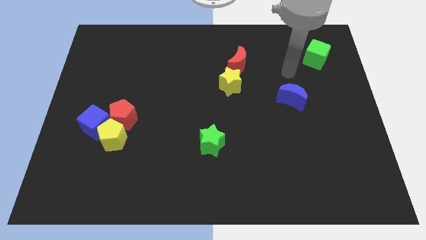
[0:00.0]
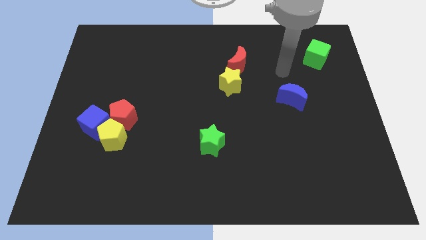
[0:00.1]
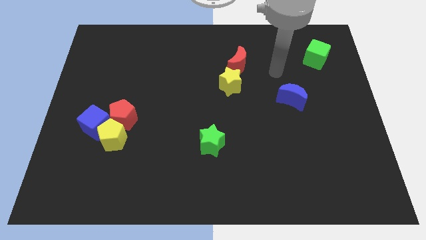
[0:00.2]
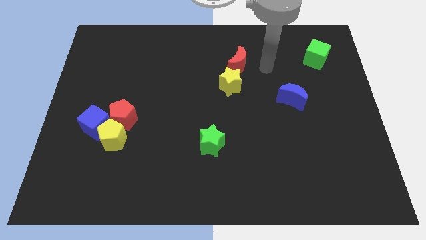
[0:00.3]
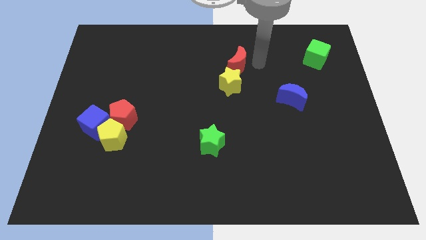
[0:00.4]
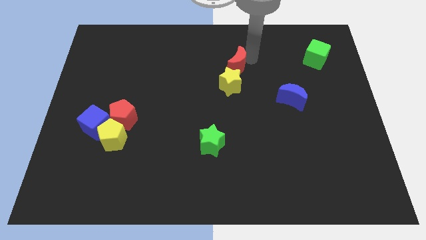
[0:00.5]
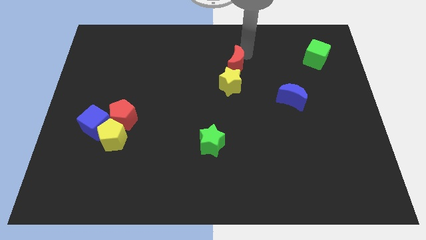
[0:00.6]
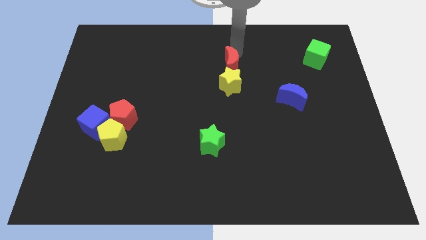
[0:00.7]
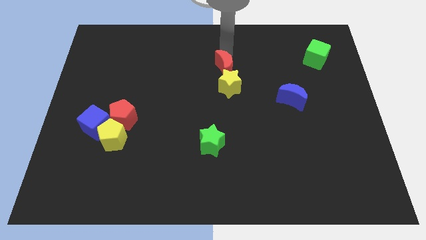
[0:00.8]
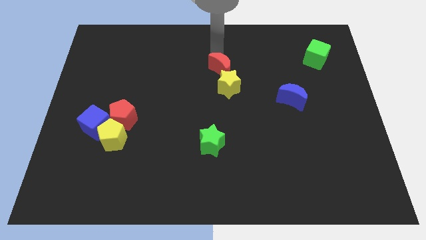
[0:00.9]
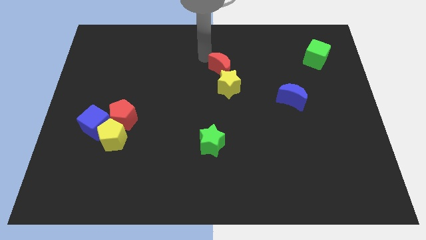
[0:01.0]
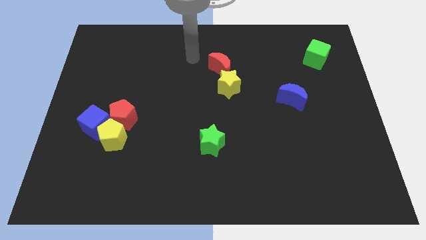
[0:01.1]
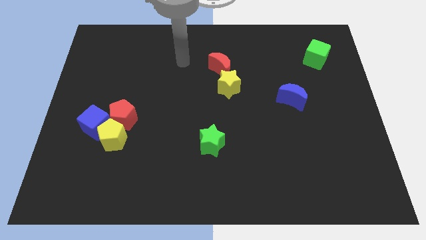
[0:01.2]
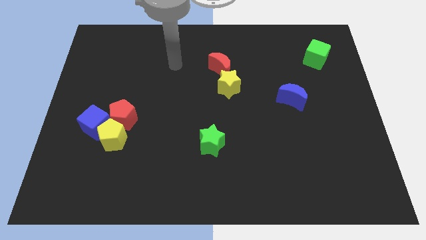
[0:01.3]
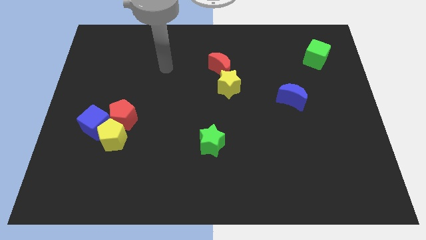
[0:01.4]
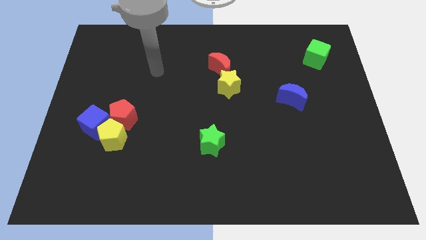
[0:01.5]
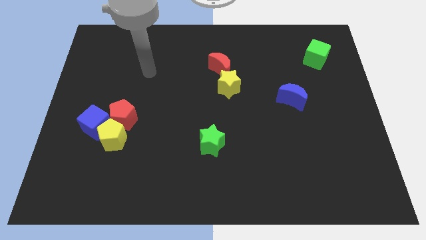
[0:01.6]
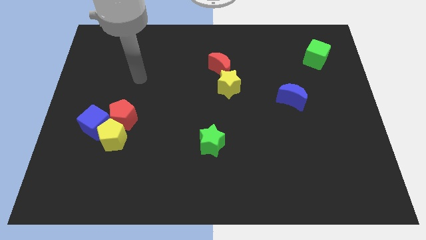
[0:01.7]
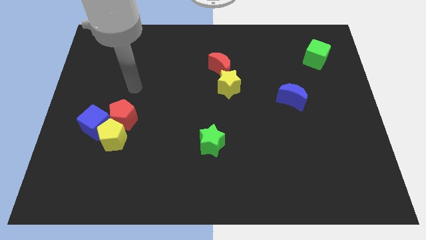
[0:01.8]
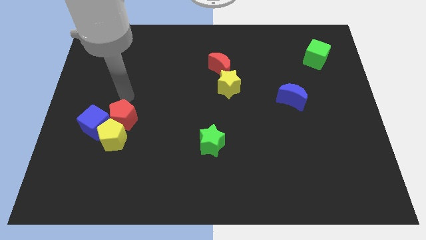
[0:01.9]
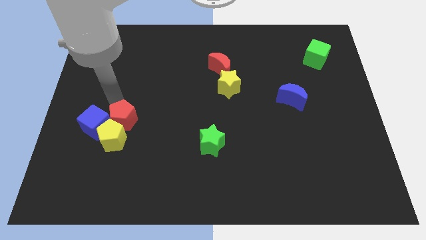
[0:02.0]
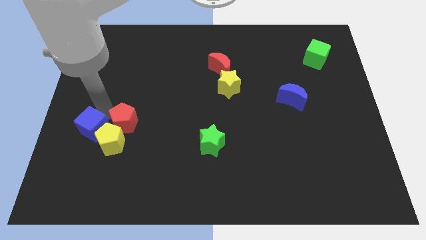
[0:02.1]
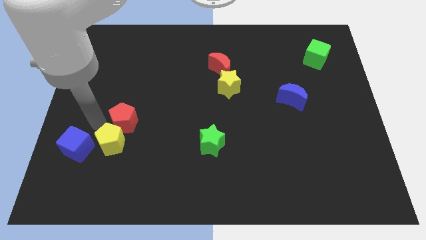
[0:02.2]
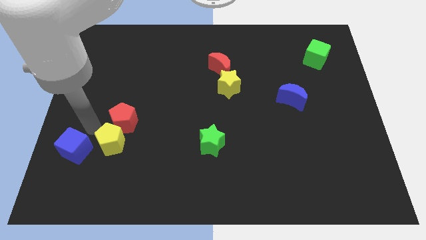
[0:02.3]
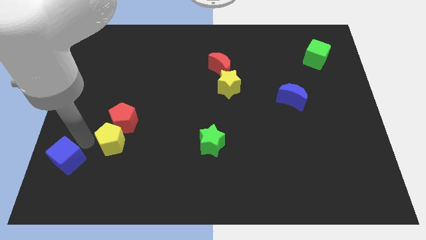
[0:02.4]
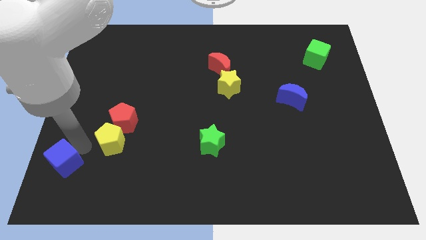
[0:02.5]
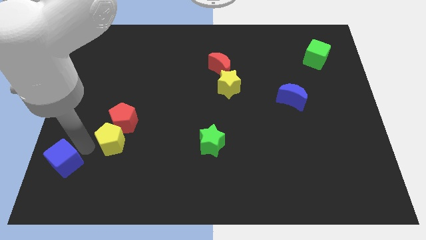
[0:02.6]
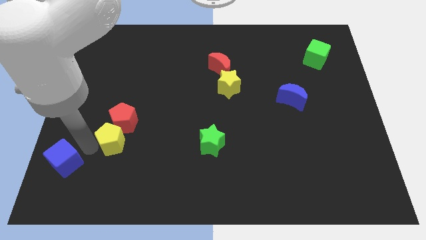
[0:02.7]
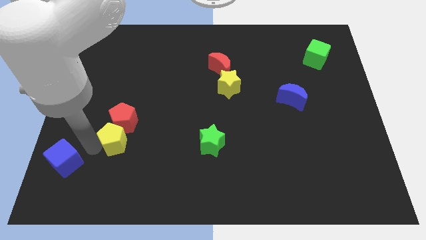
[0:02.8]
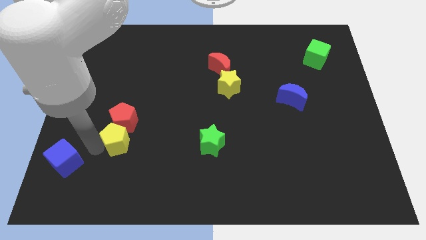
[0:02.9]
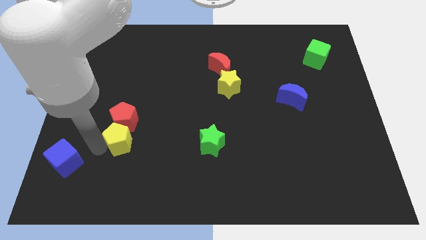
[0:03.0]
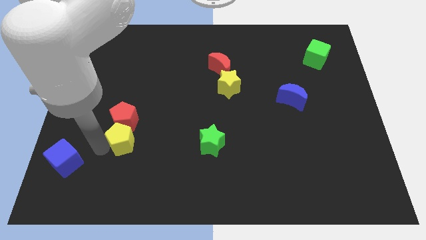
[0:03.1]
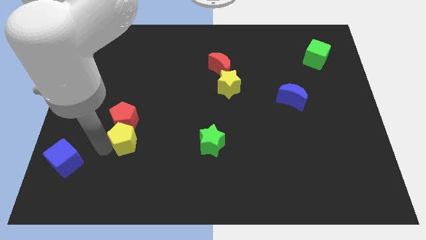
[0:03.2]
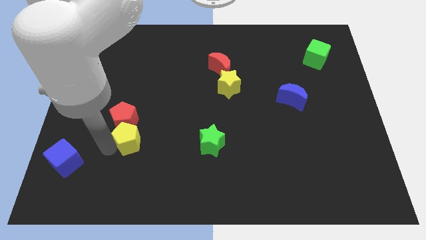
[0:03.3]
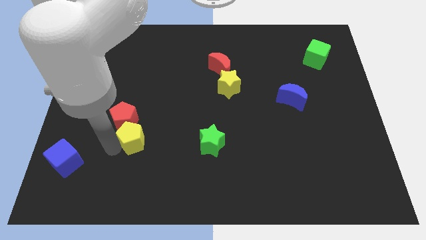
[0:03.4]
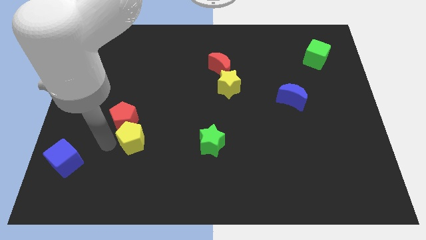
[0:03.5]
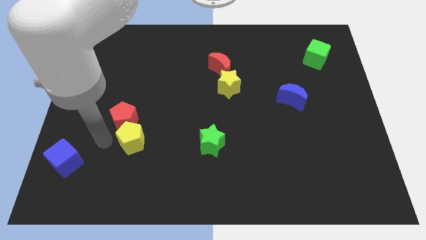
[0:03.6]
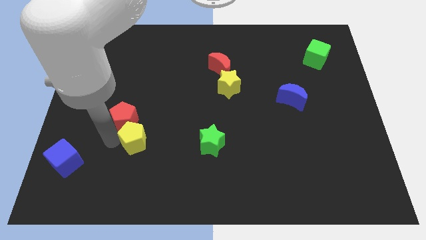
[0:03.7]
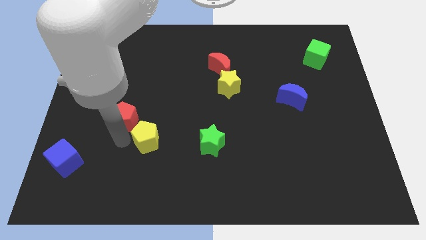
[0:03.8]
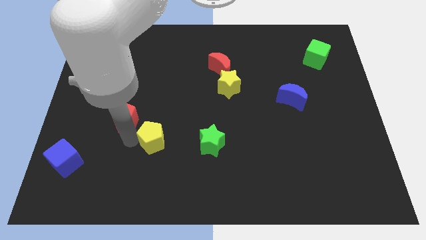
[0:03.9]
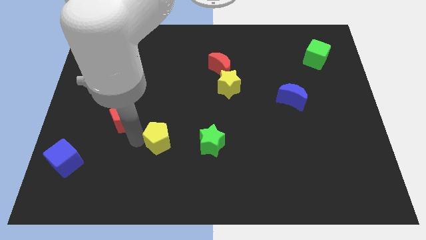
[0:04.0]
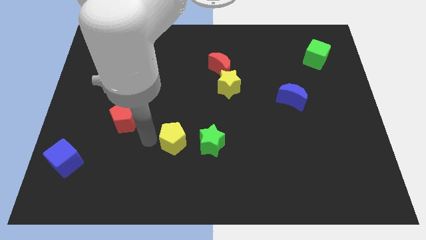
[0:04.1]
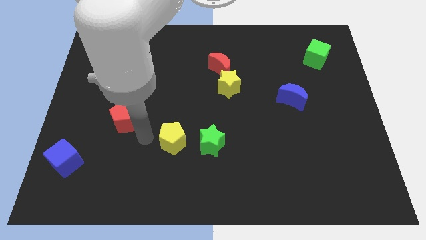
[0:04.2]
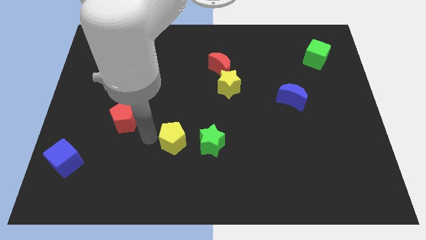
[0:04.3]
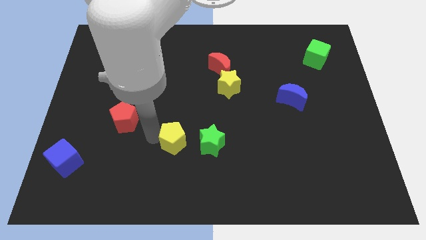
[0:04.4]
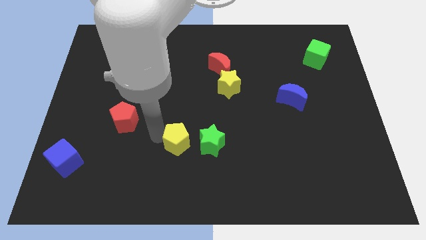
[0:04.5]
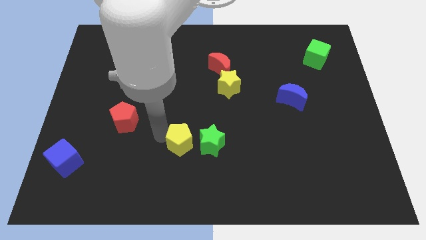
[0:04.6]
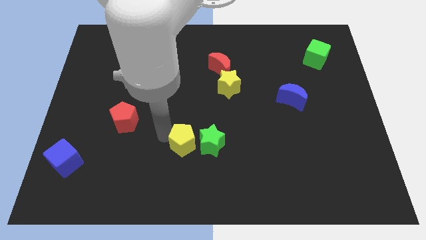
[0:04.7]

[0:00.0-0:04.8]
move the yellow pentagon close to the green star

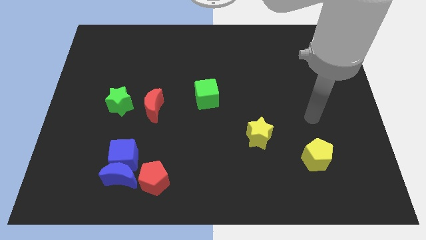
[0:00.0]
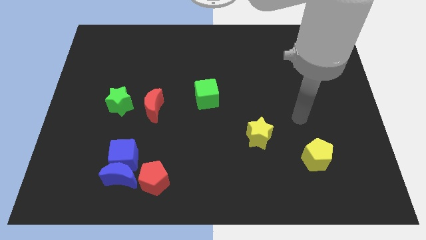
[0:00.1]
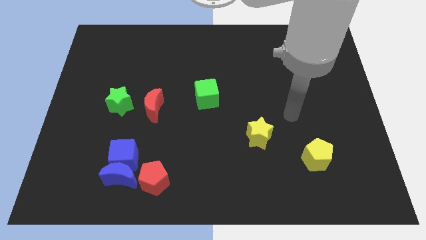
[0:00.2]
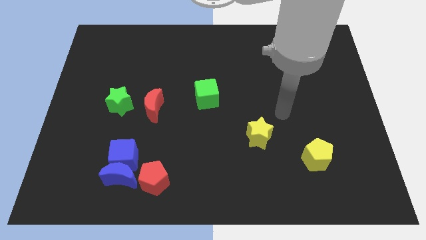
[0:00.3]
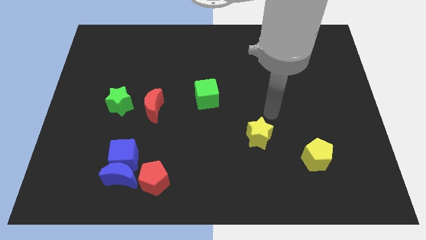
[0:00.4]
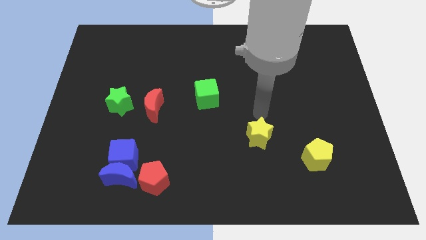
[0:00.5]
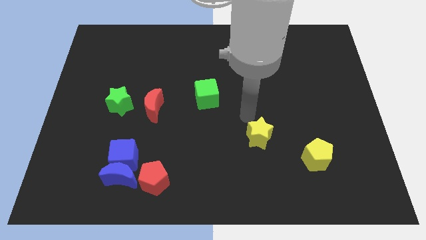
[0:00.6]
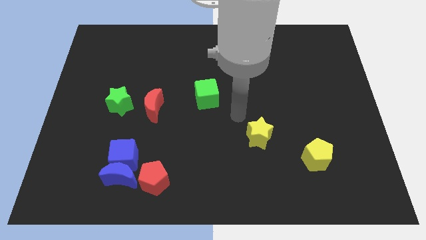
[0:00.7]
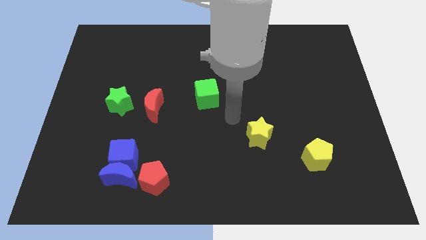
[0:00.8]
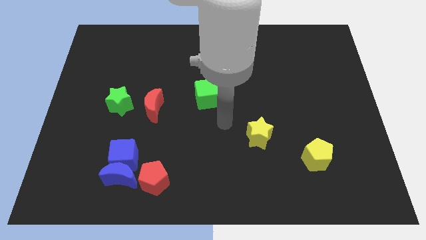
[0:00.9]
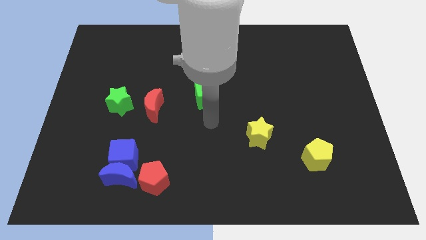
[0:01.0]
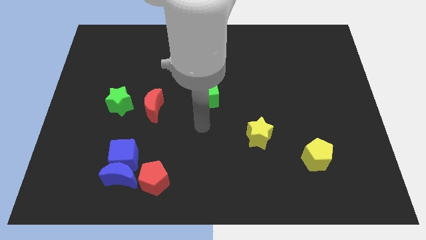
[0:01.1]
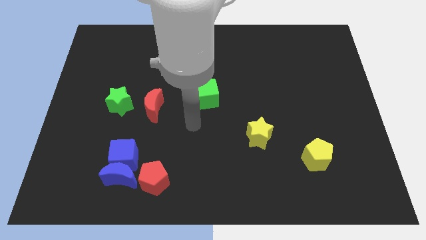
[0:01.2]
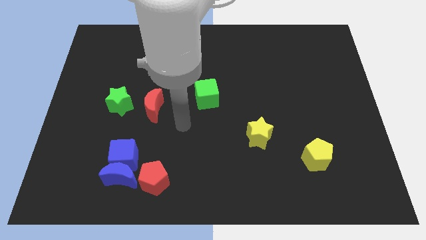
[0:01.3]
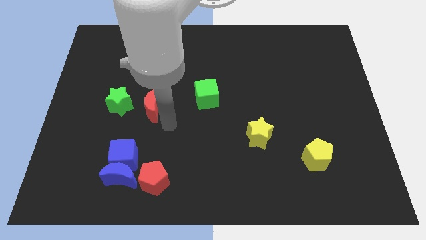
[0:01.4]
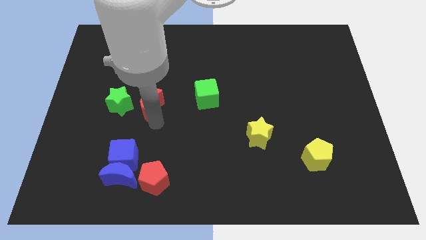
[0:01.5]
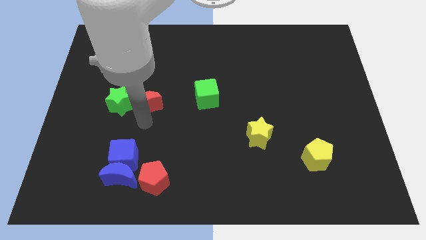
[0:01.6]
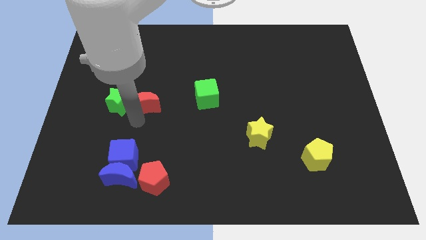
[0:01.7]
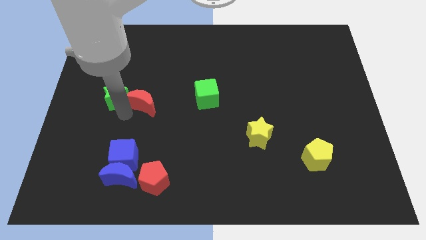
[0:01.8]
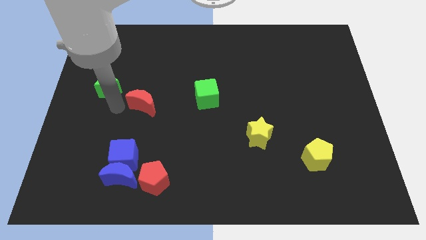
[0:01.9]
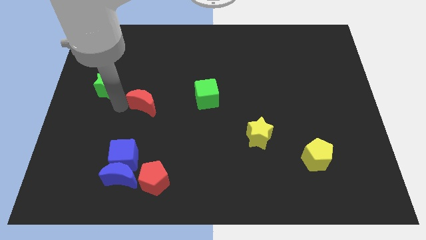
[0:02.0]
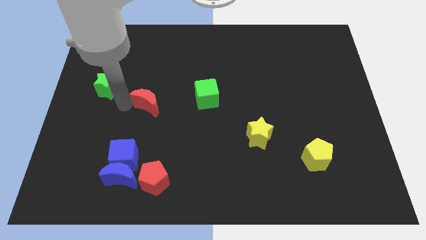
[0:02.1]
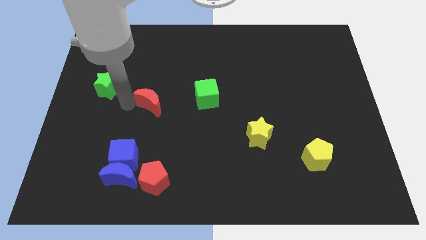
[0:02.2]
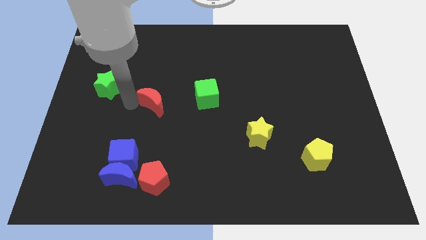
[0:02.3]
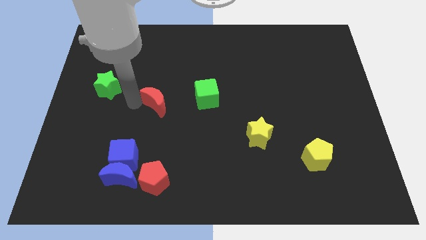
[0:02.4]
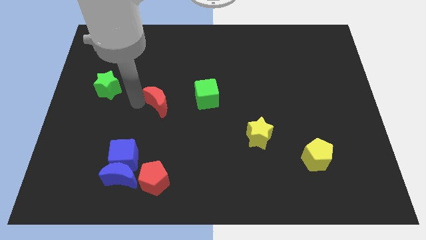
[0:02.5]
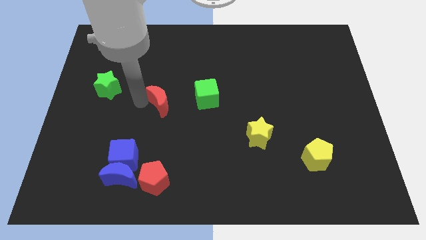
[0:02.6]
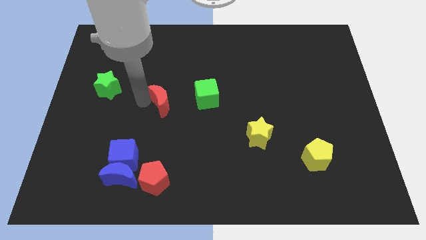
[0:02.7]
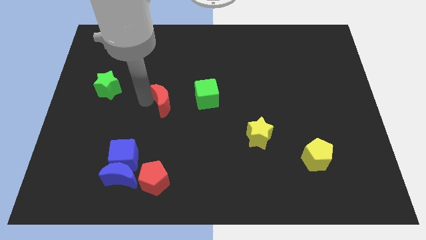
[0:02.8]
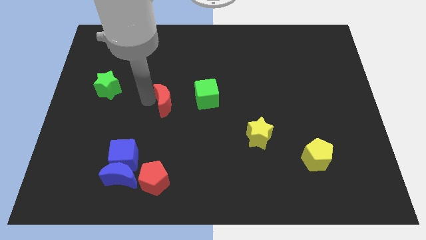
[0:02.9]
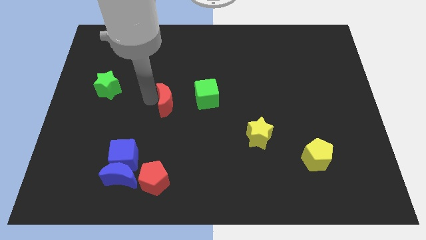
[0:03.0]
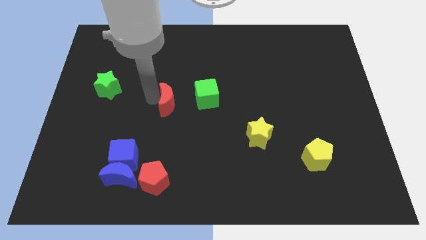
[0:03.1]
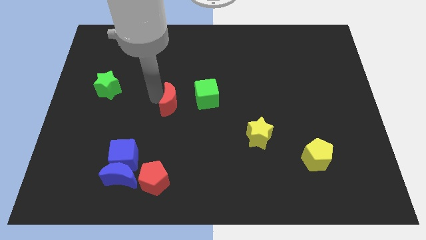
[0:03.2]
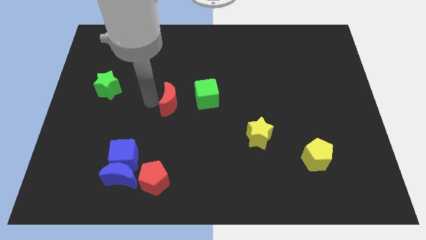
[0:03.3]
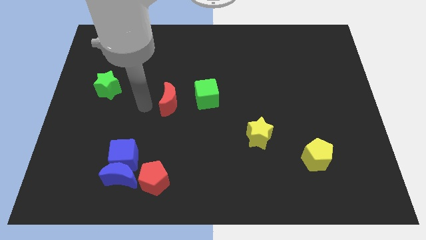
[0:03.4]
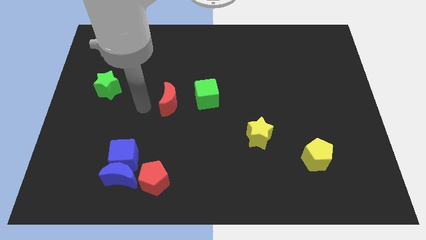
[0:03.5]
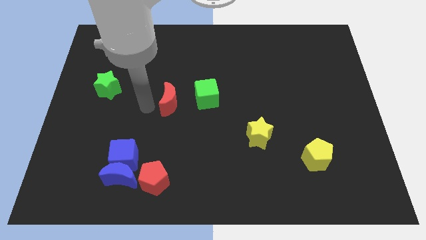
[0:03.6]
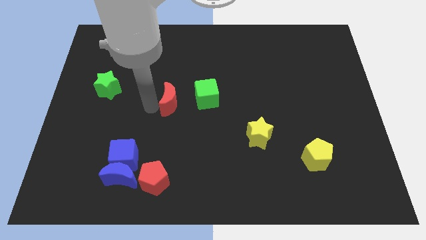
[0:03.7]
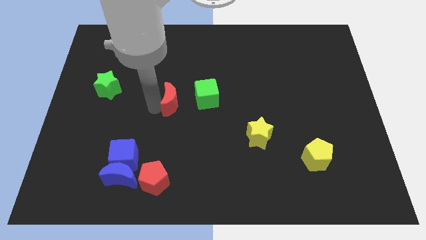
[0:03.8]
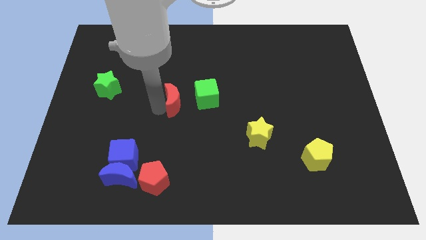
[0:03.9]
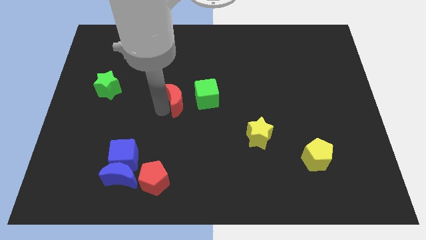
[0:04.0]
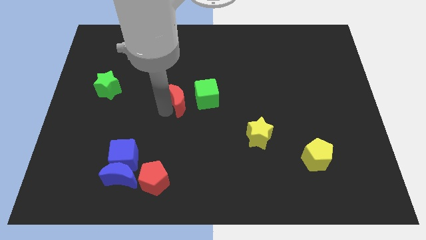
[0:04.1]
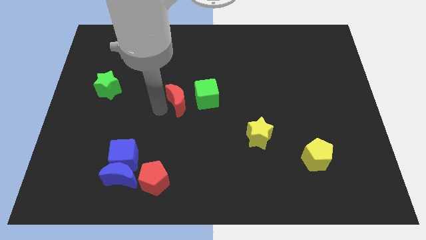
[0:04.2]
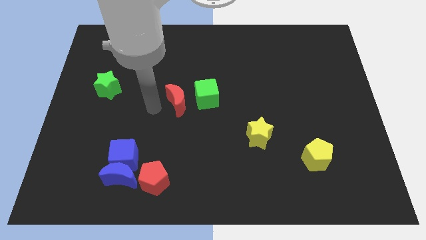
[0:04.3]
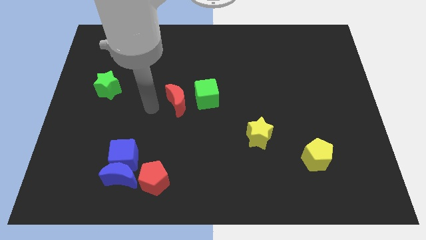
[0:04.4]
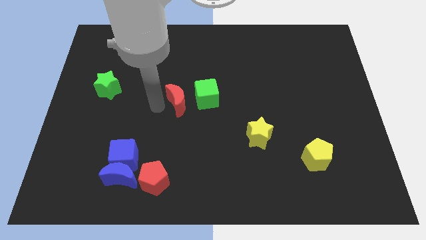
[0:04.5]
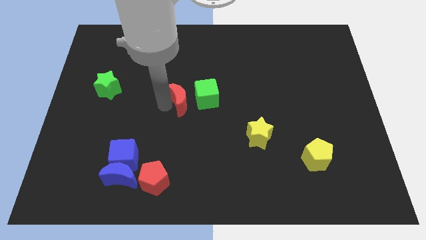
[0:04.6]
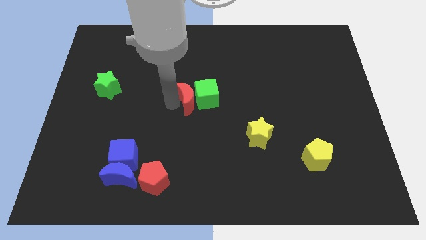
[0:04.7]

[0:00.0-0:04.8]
slide the red moon close to the green cube
